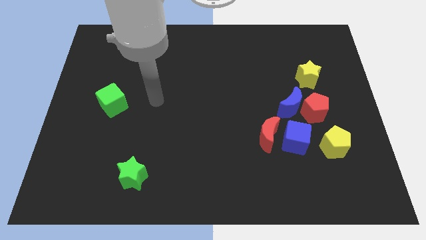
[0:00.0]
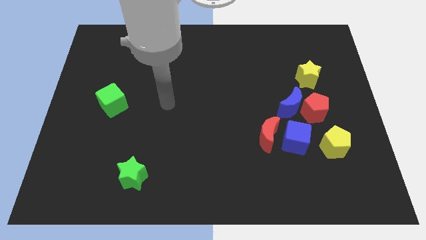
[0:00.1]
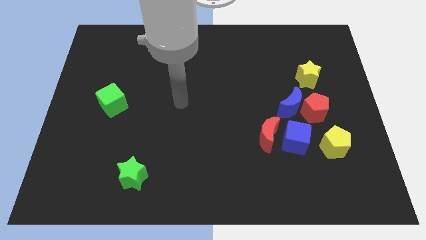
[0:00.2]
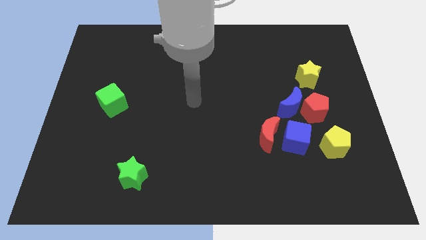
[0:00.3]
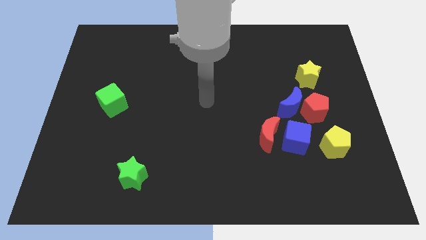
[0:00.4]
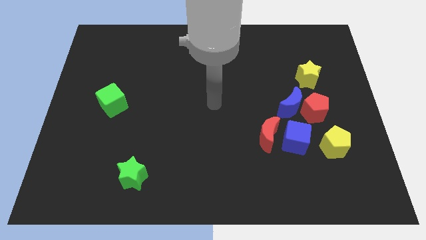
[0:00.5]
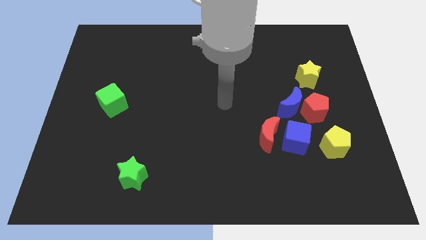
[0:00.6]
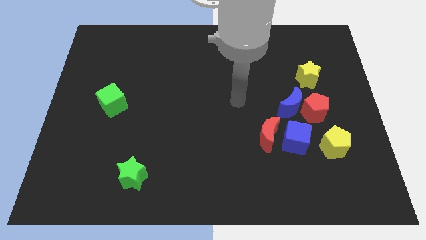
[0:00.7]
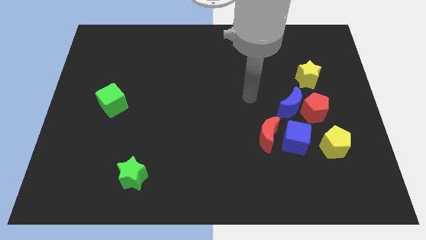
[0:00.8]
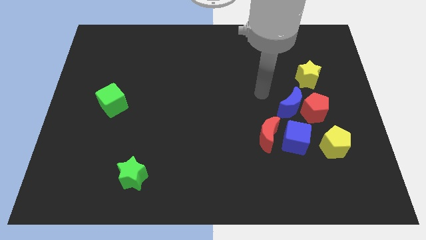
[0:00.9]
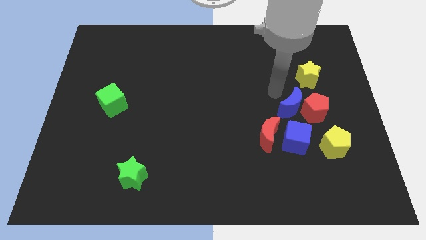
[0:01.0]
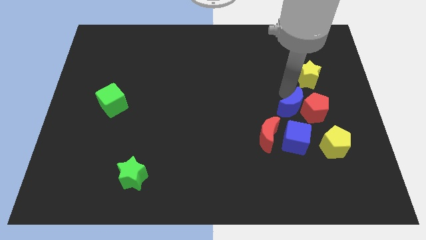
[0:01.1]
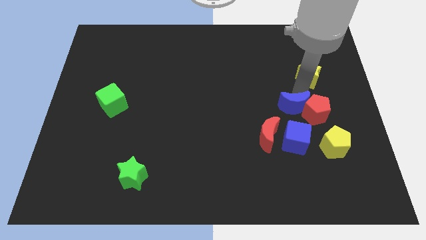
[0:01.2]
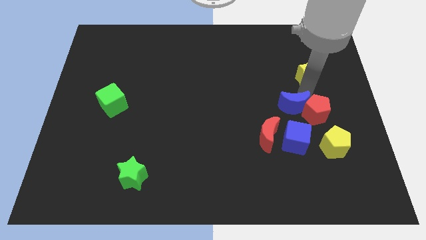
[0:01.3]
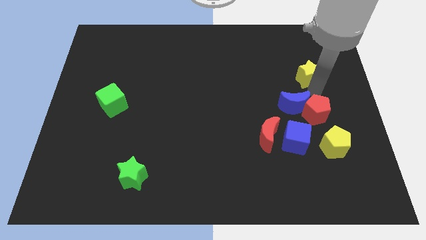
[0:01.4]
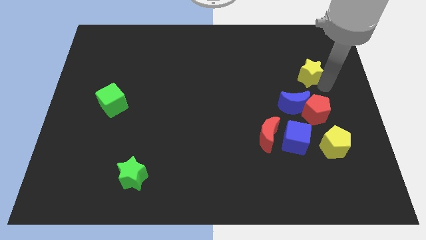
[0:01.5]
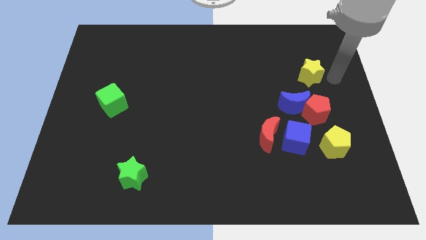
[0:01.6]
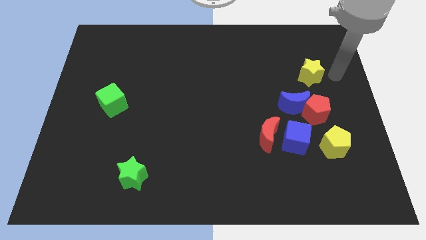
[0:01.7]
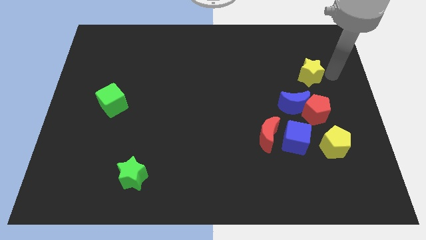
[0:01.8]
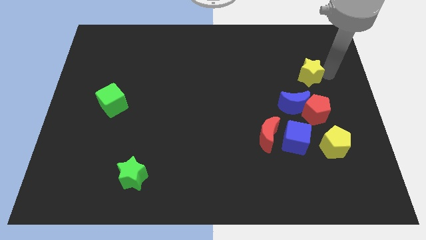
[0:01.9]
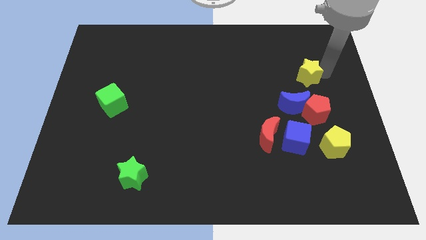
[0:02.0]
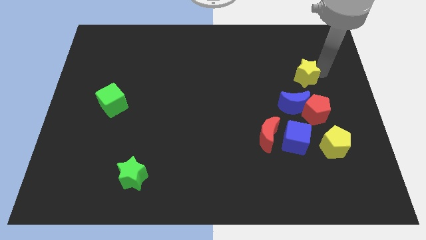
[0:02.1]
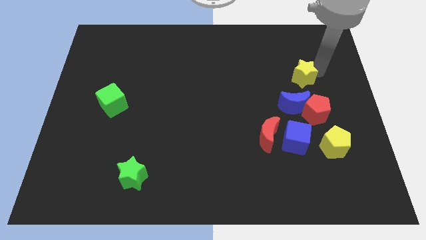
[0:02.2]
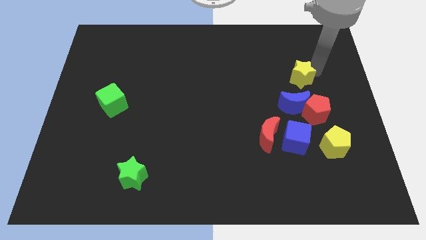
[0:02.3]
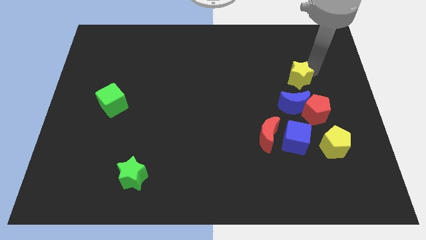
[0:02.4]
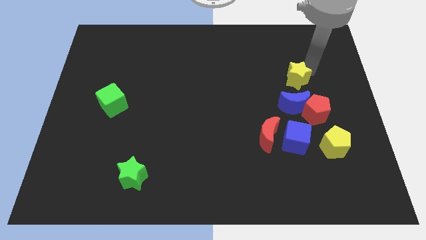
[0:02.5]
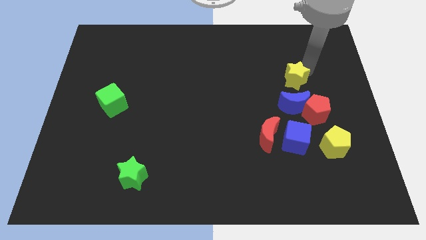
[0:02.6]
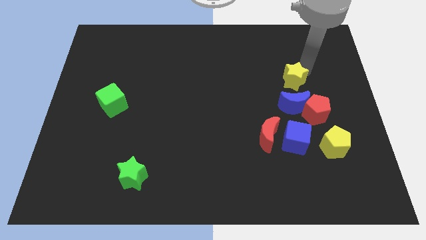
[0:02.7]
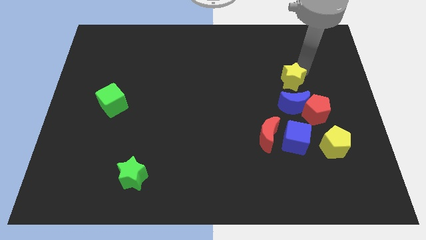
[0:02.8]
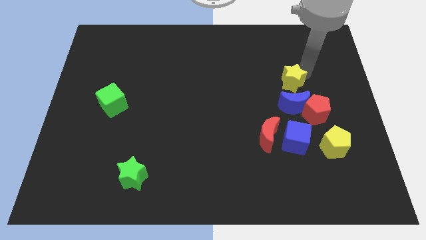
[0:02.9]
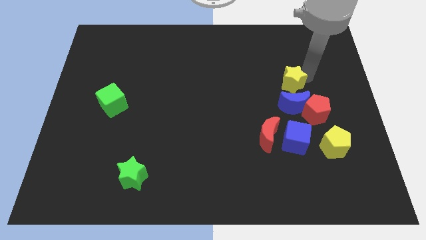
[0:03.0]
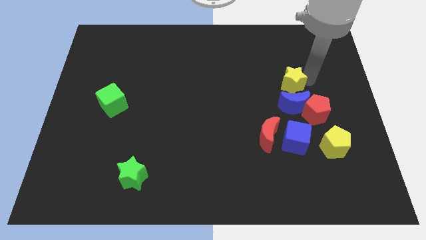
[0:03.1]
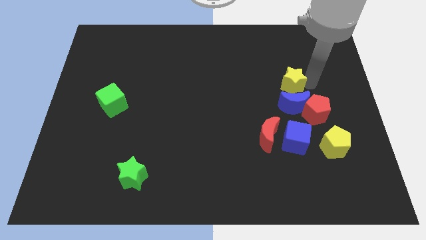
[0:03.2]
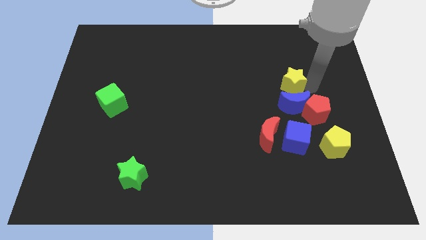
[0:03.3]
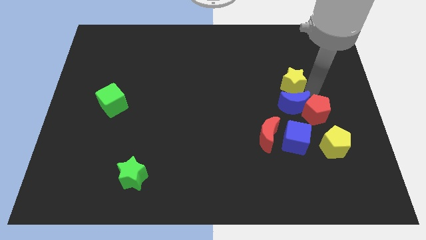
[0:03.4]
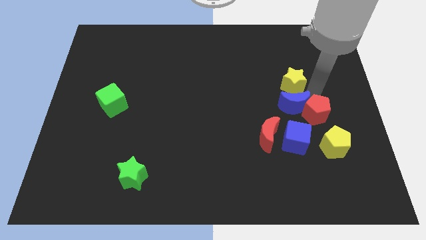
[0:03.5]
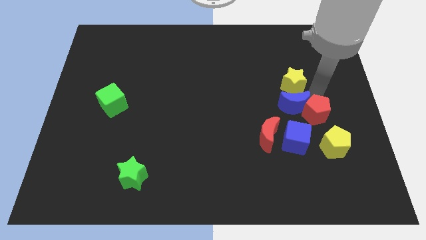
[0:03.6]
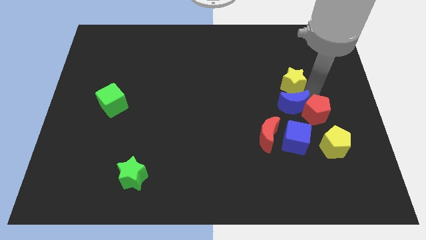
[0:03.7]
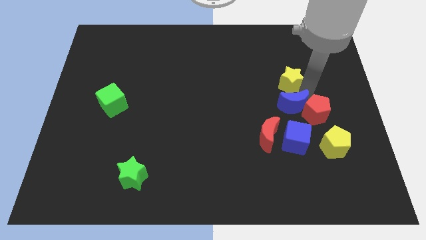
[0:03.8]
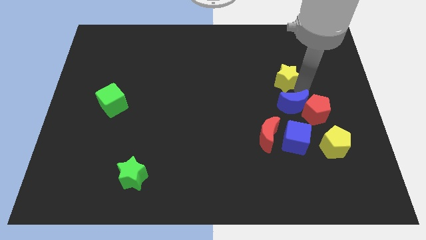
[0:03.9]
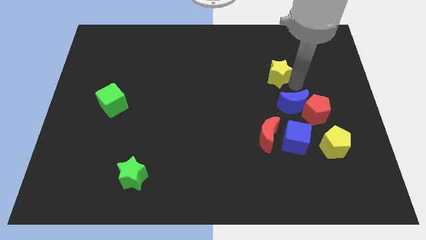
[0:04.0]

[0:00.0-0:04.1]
slide the yellow star left a bit

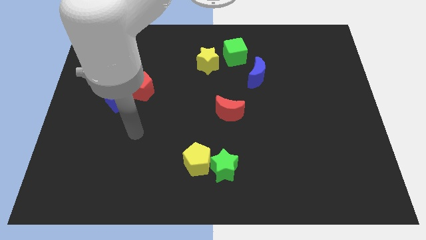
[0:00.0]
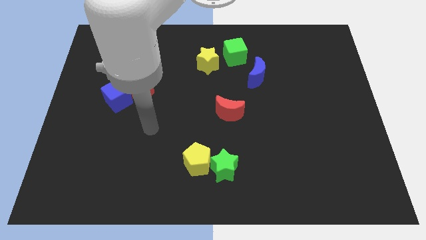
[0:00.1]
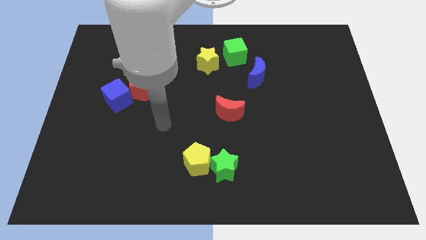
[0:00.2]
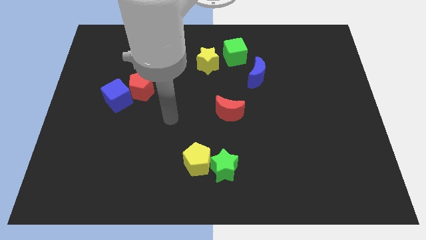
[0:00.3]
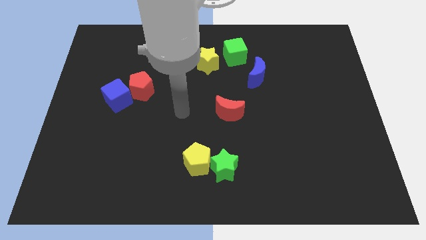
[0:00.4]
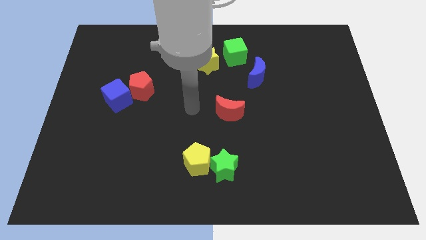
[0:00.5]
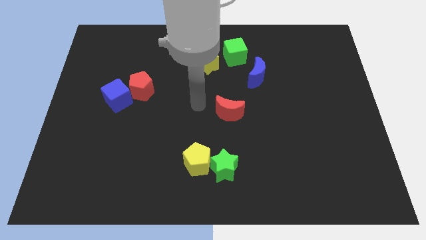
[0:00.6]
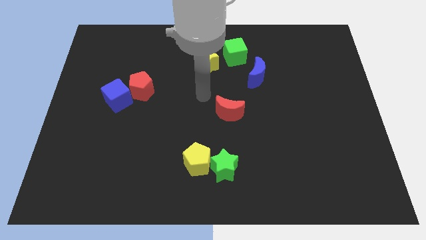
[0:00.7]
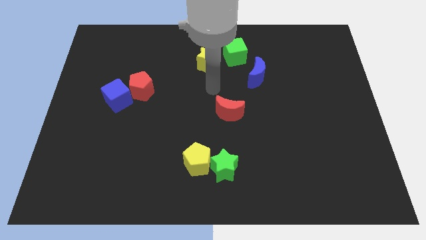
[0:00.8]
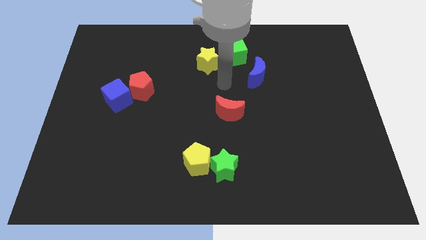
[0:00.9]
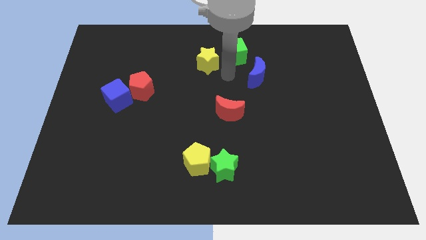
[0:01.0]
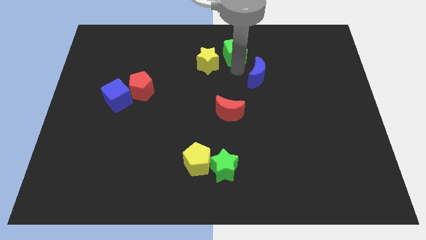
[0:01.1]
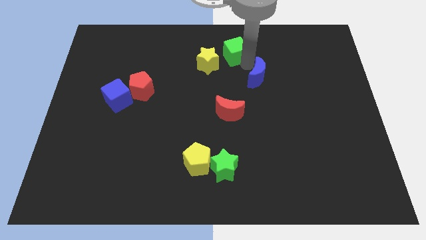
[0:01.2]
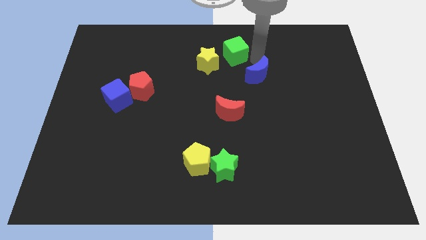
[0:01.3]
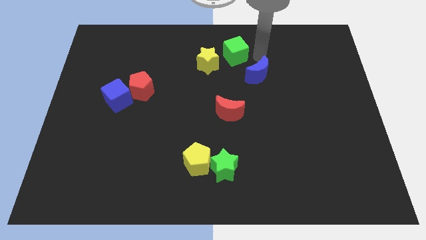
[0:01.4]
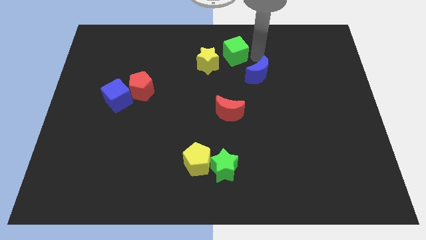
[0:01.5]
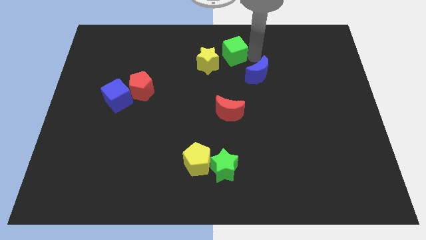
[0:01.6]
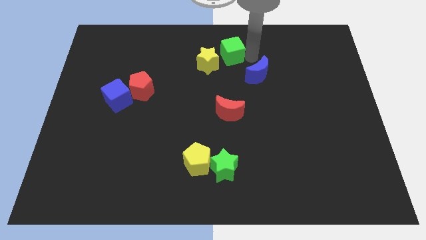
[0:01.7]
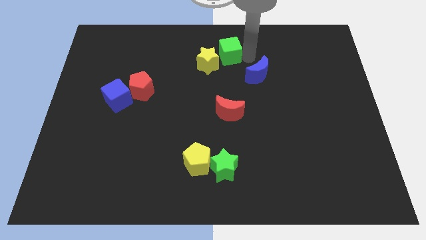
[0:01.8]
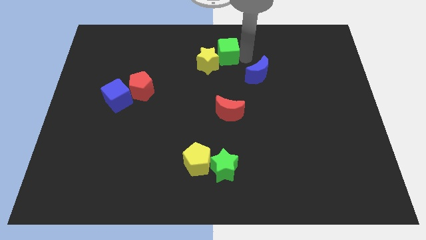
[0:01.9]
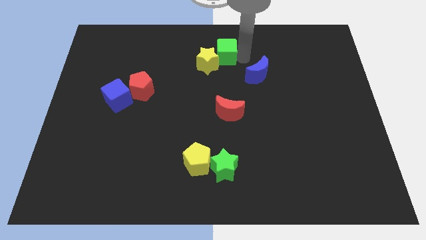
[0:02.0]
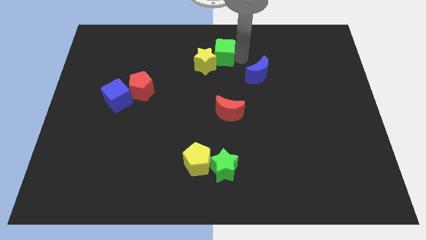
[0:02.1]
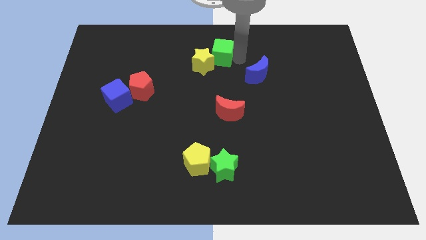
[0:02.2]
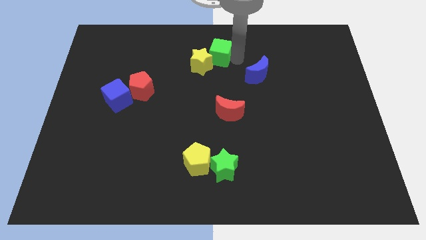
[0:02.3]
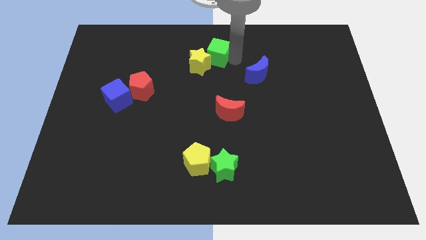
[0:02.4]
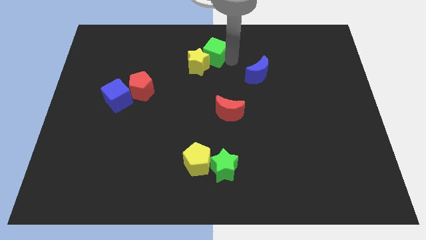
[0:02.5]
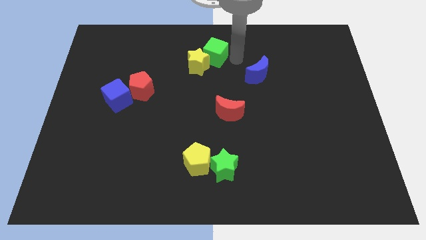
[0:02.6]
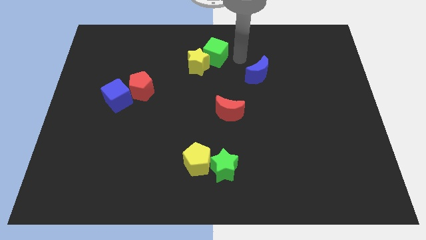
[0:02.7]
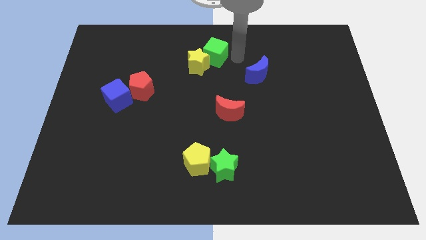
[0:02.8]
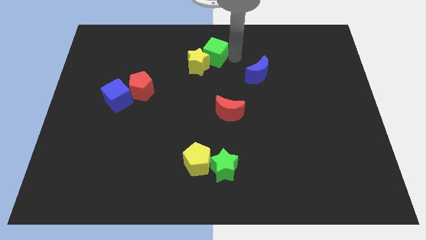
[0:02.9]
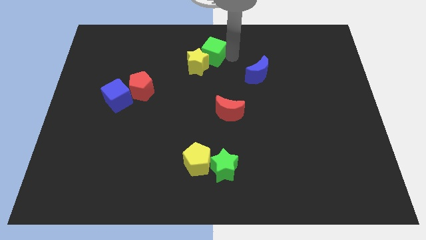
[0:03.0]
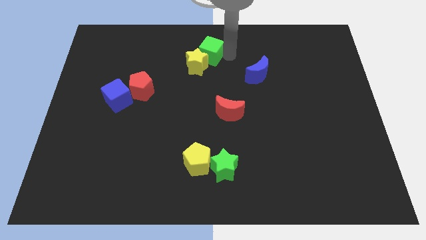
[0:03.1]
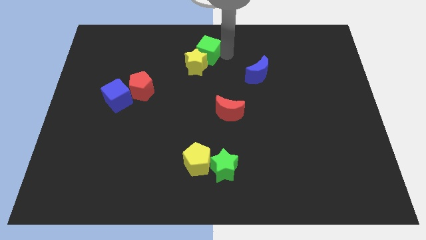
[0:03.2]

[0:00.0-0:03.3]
push the green cube slightly left

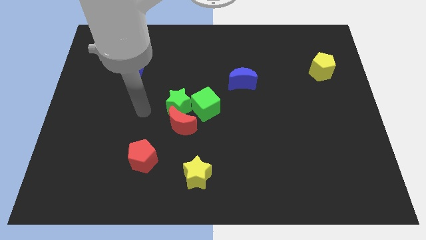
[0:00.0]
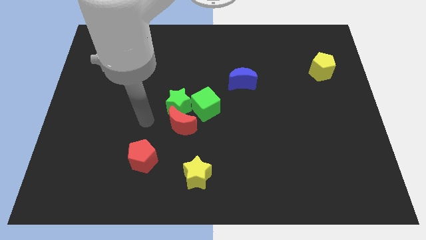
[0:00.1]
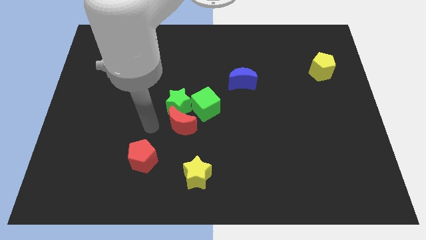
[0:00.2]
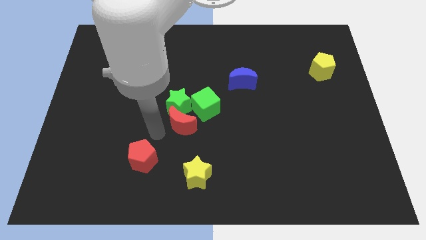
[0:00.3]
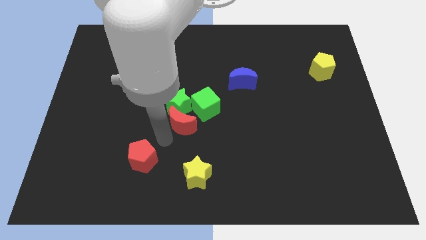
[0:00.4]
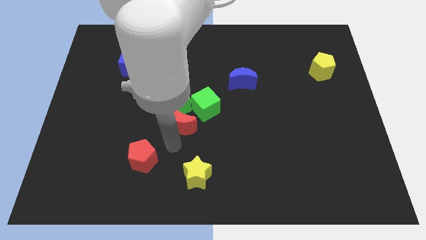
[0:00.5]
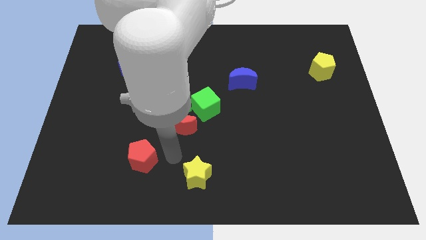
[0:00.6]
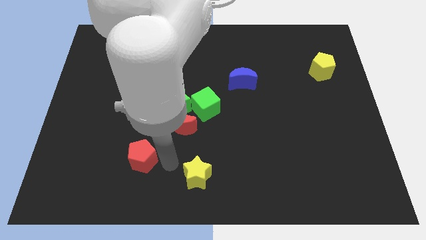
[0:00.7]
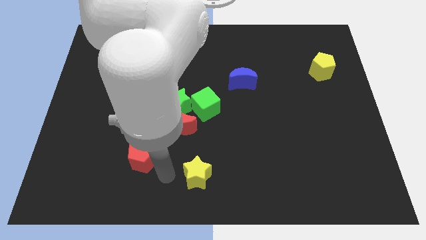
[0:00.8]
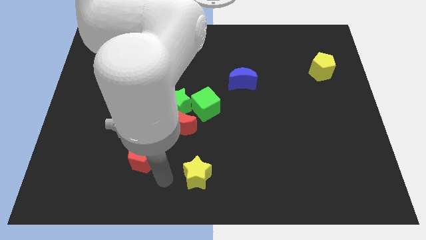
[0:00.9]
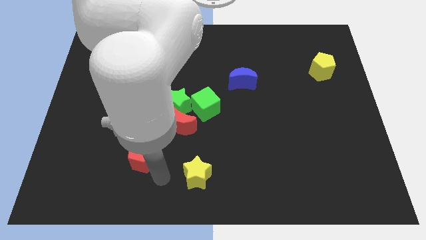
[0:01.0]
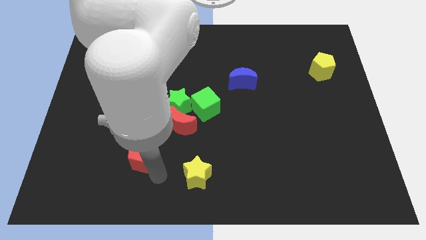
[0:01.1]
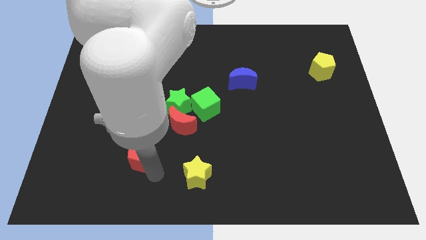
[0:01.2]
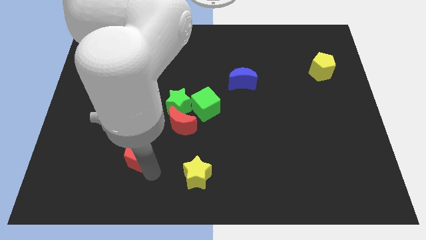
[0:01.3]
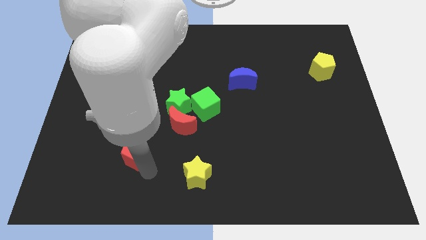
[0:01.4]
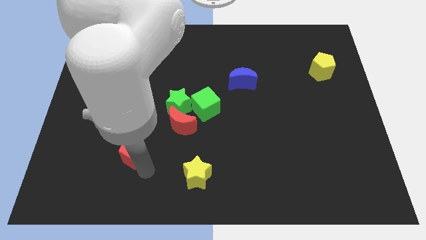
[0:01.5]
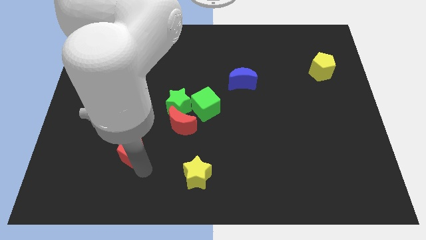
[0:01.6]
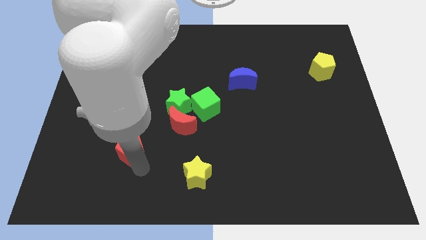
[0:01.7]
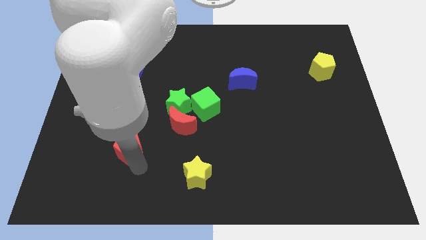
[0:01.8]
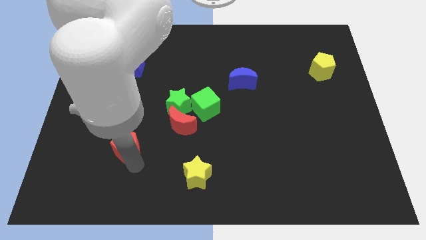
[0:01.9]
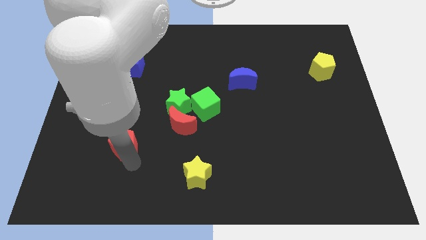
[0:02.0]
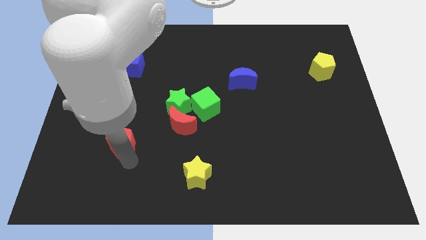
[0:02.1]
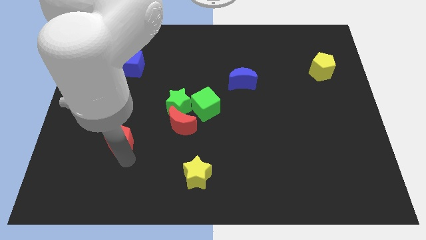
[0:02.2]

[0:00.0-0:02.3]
slide the red pentagon somewhat upwards and to the left
